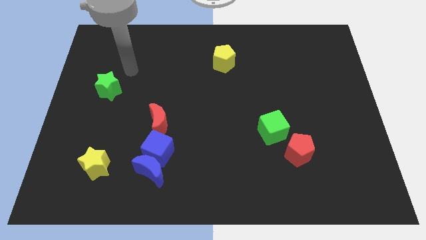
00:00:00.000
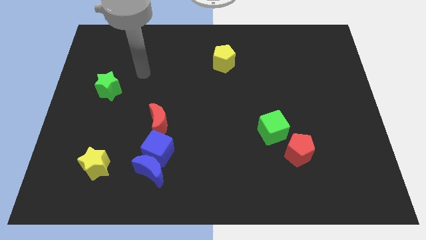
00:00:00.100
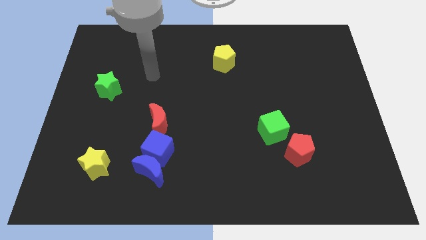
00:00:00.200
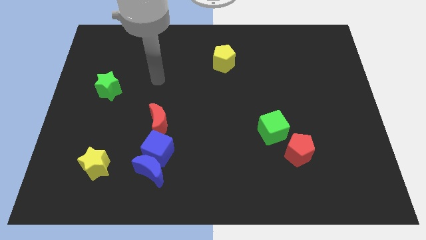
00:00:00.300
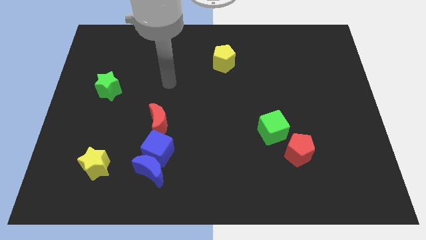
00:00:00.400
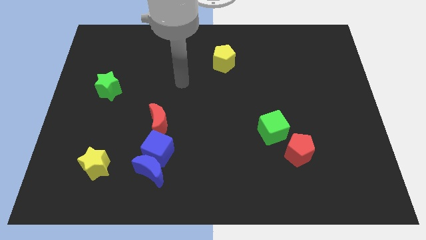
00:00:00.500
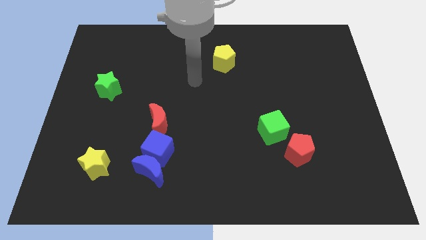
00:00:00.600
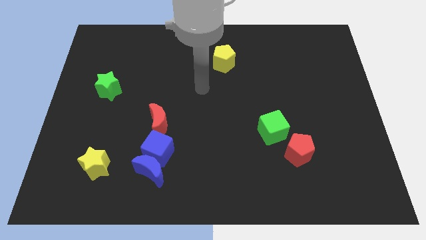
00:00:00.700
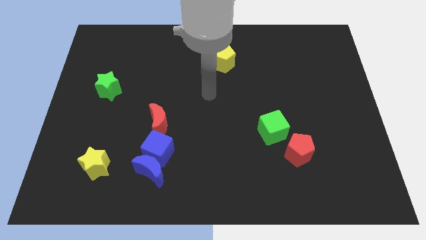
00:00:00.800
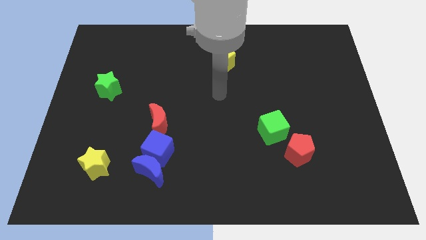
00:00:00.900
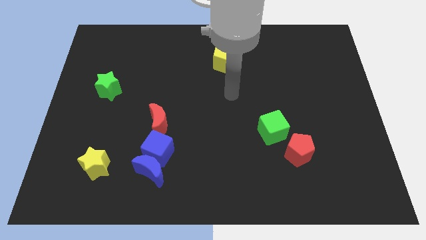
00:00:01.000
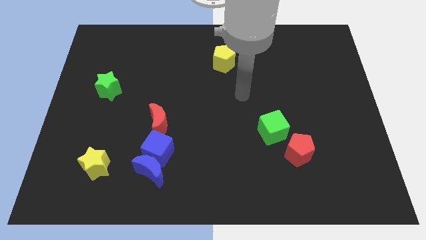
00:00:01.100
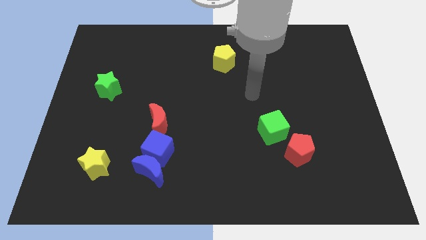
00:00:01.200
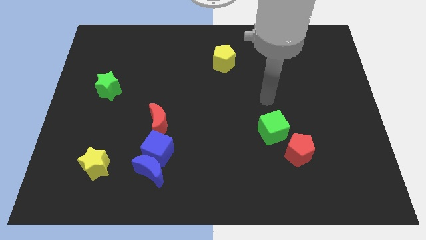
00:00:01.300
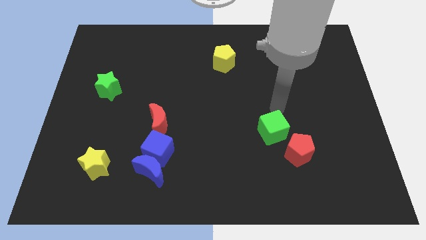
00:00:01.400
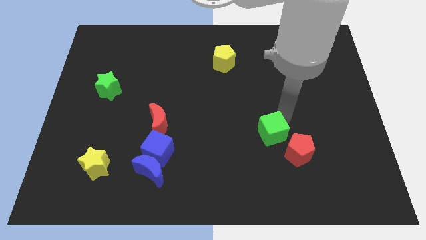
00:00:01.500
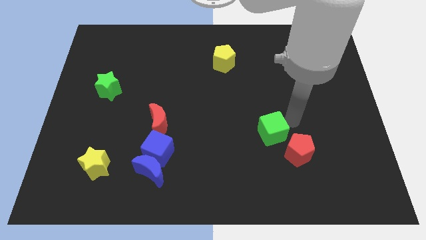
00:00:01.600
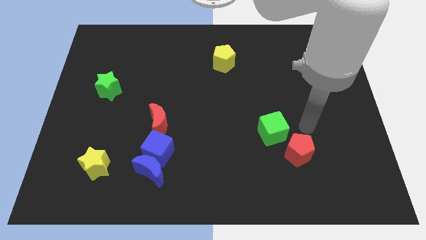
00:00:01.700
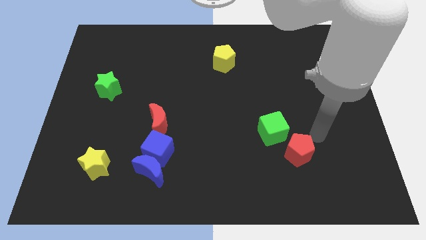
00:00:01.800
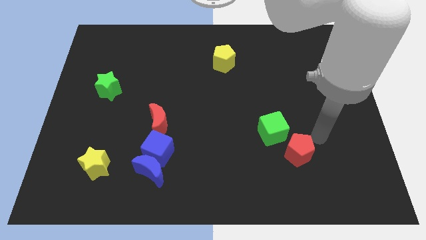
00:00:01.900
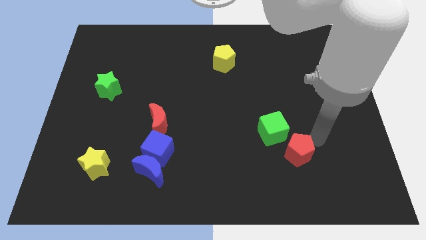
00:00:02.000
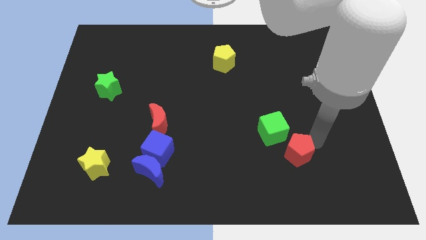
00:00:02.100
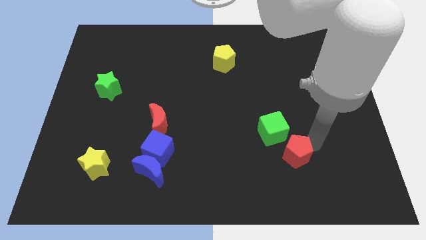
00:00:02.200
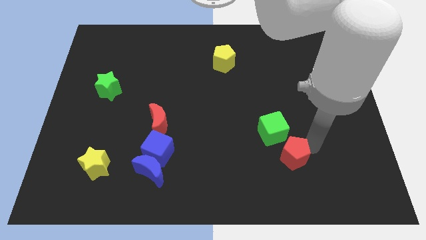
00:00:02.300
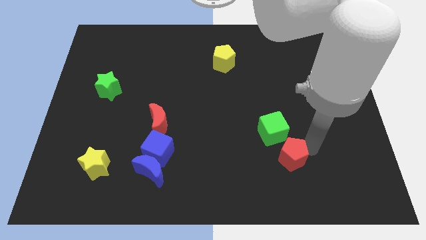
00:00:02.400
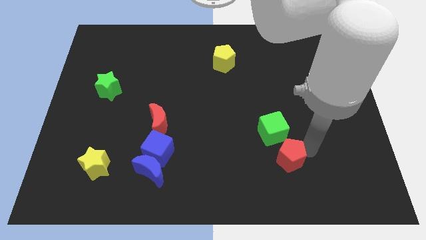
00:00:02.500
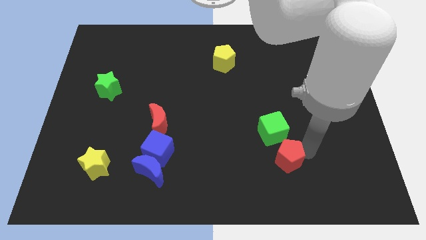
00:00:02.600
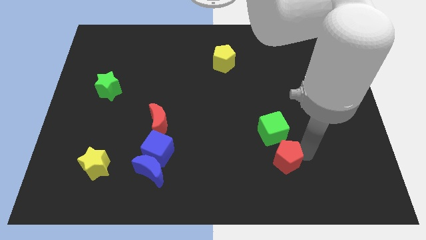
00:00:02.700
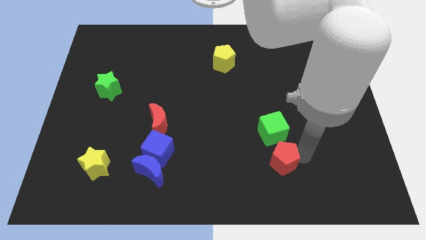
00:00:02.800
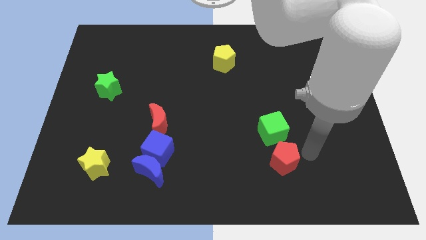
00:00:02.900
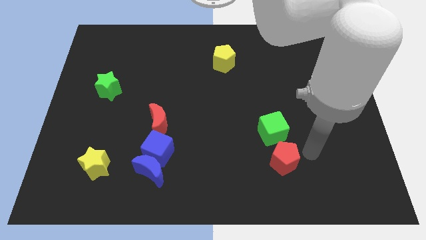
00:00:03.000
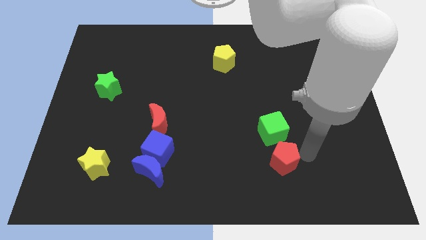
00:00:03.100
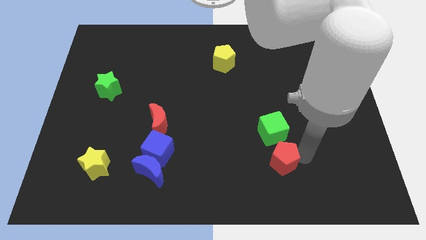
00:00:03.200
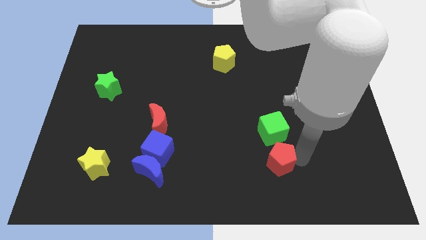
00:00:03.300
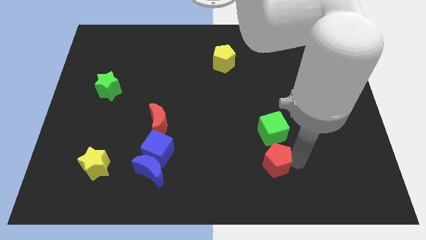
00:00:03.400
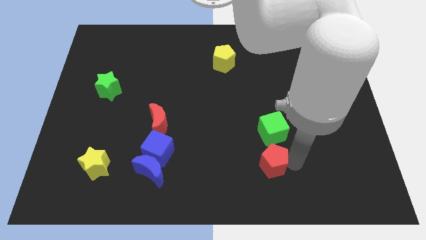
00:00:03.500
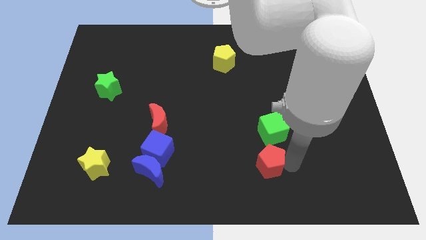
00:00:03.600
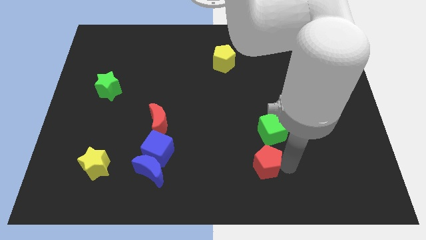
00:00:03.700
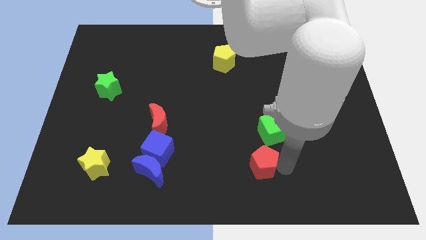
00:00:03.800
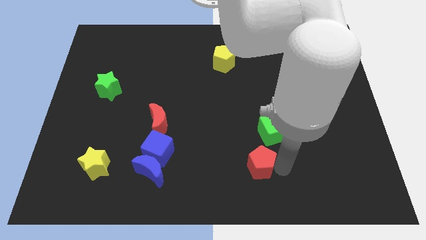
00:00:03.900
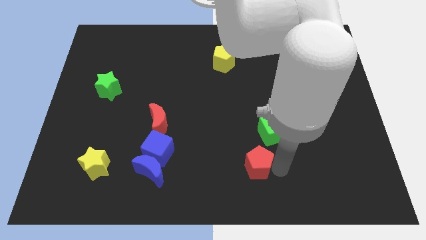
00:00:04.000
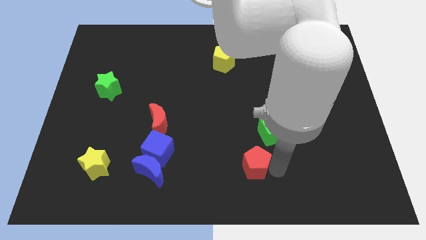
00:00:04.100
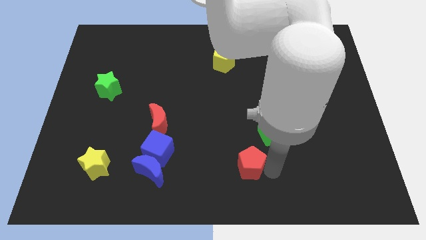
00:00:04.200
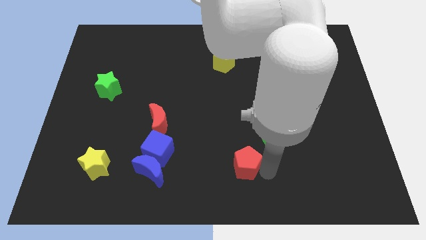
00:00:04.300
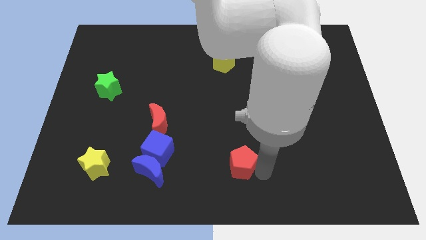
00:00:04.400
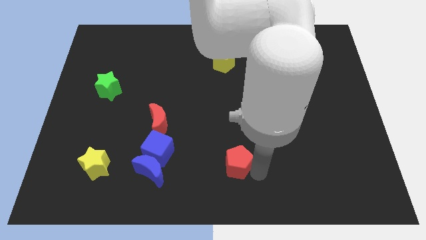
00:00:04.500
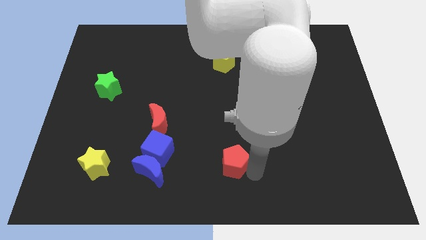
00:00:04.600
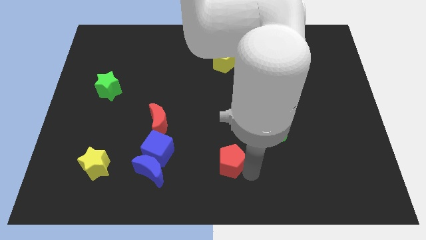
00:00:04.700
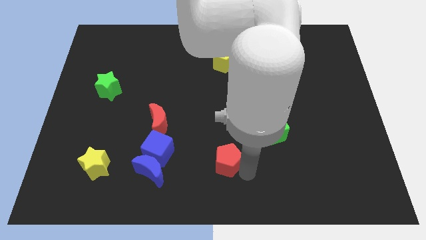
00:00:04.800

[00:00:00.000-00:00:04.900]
move the red pentagon just right of the blue moon

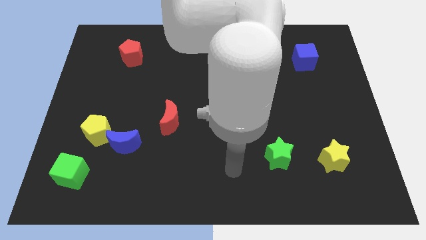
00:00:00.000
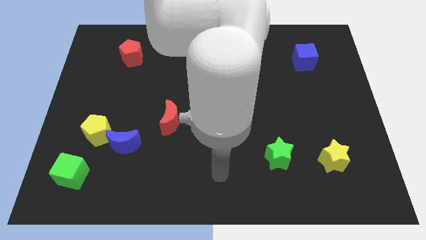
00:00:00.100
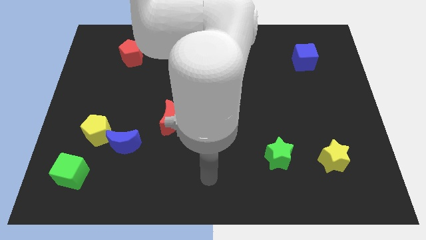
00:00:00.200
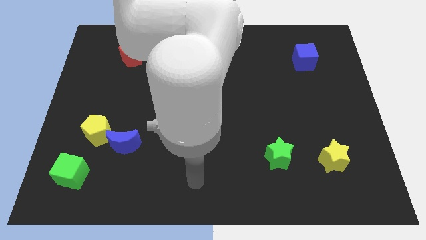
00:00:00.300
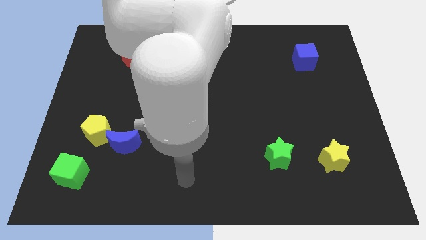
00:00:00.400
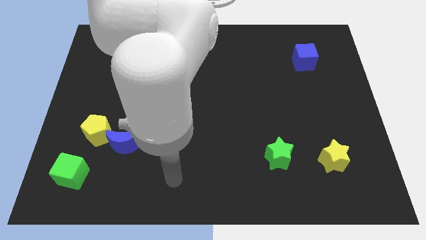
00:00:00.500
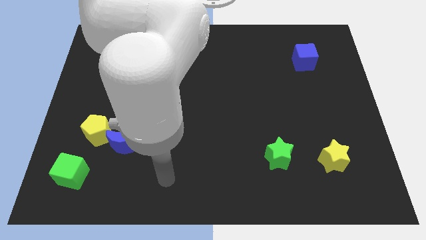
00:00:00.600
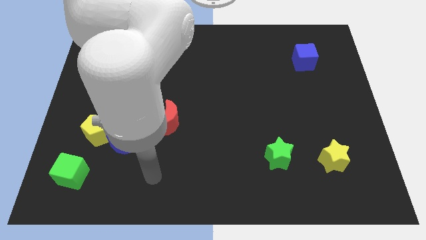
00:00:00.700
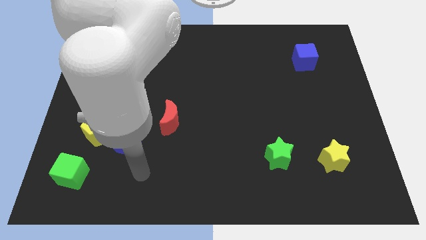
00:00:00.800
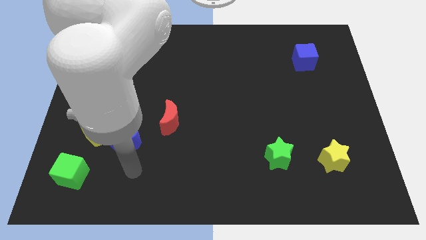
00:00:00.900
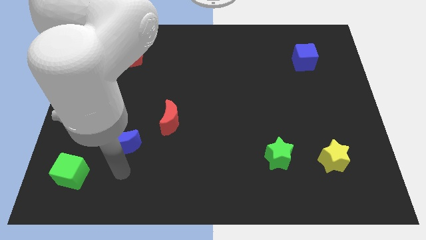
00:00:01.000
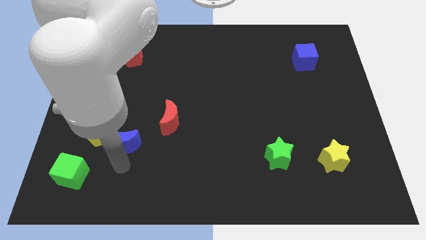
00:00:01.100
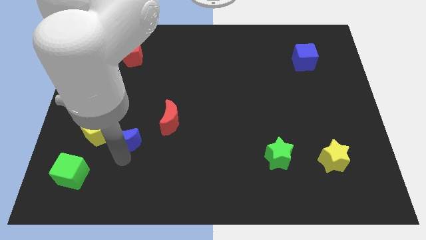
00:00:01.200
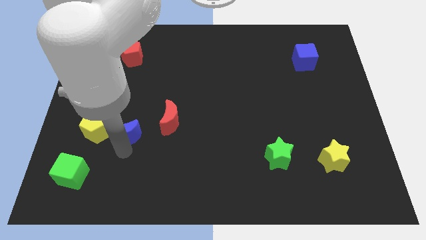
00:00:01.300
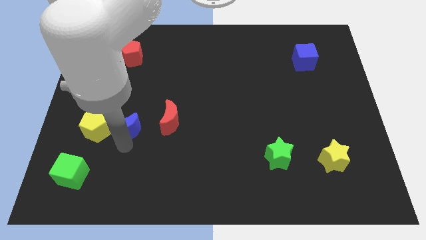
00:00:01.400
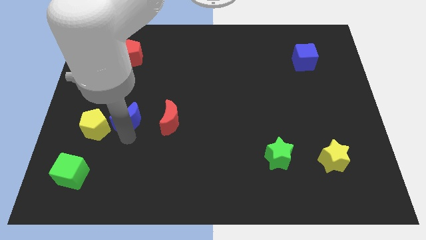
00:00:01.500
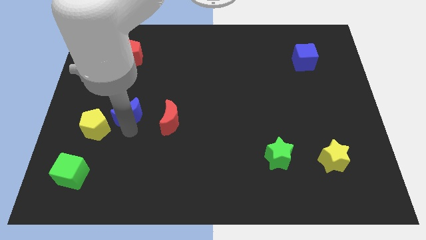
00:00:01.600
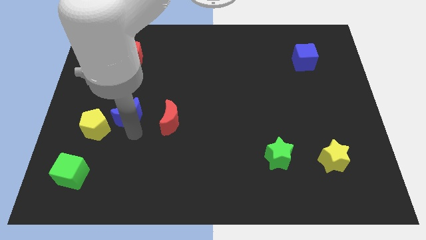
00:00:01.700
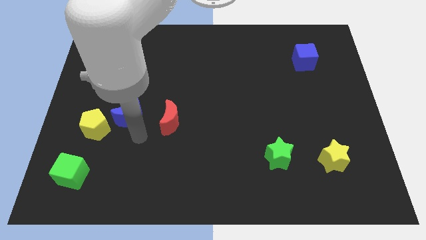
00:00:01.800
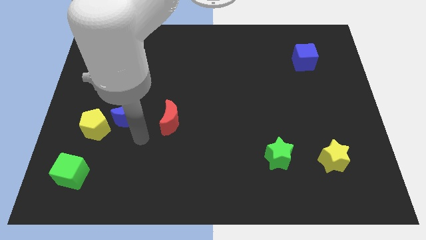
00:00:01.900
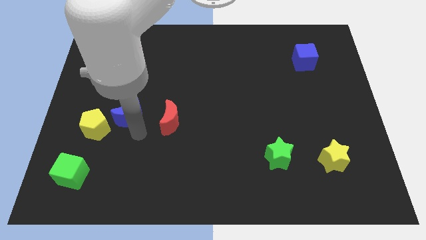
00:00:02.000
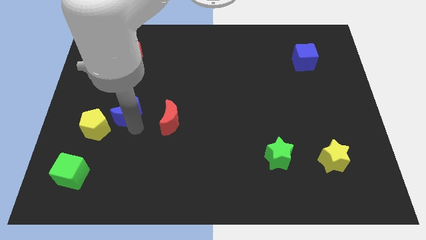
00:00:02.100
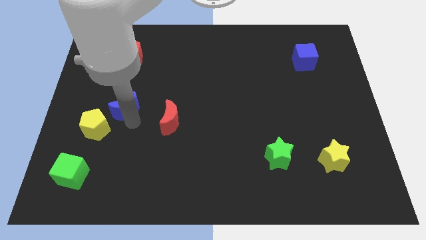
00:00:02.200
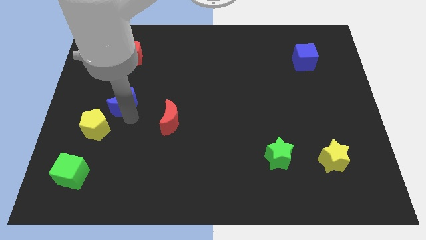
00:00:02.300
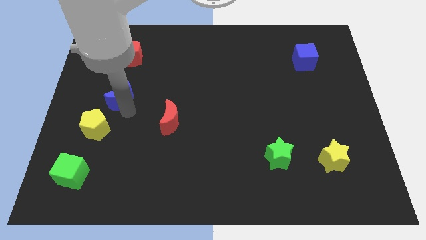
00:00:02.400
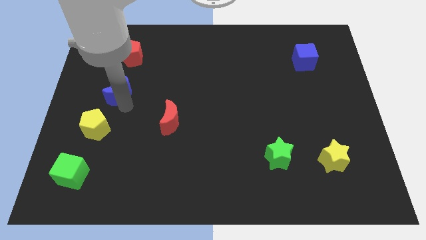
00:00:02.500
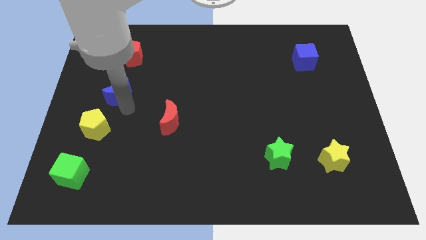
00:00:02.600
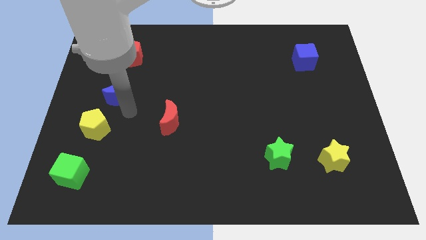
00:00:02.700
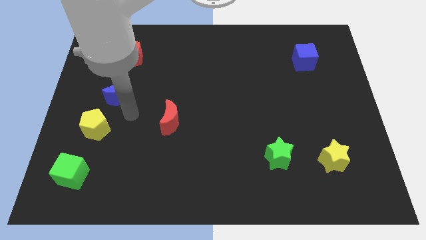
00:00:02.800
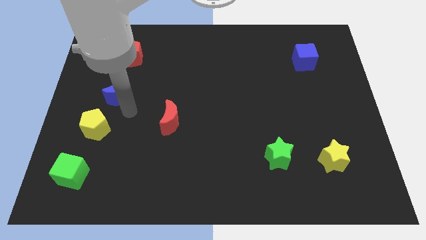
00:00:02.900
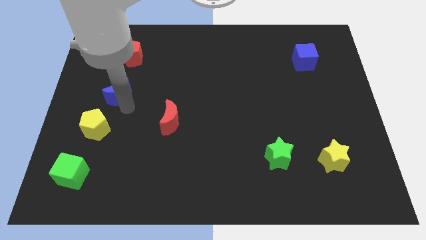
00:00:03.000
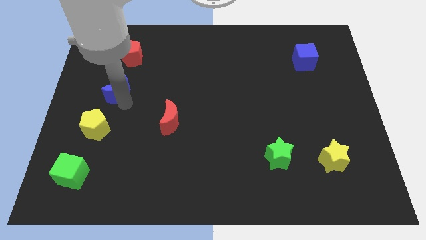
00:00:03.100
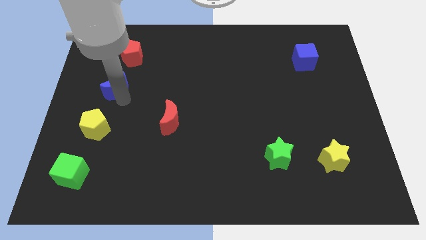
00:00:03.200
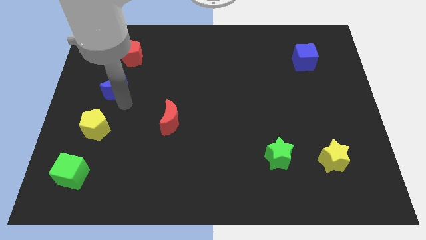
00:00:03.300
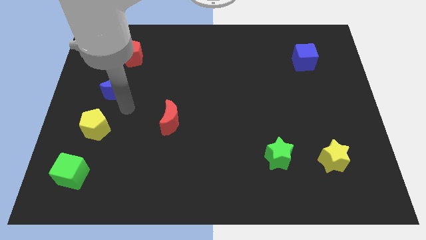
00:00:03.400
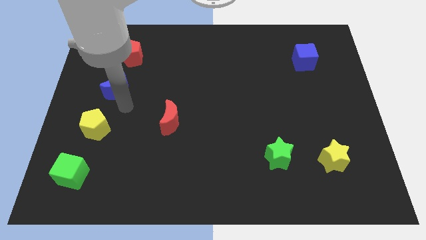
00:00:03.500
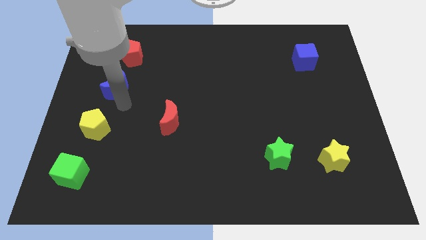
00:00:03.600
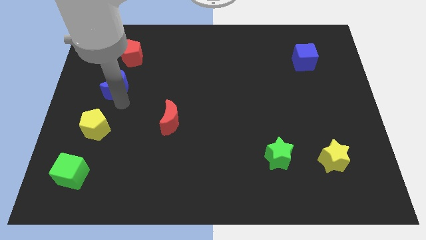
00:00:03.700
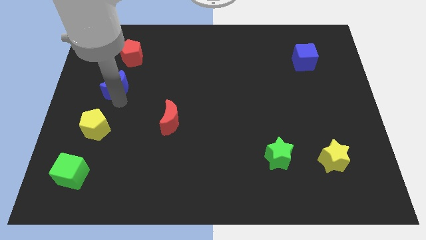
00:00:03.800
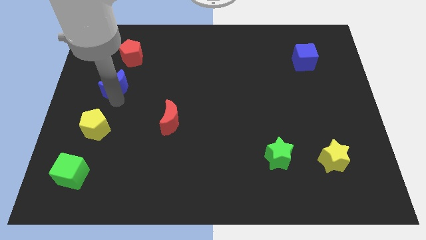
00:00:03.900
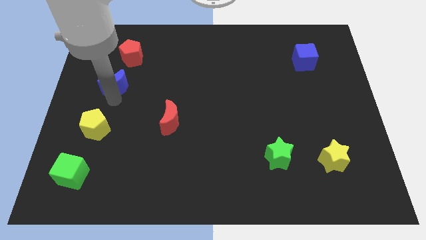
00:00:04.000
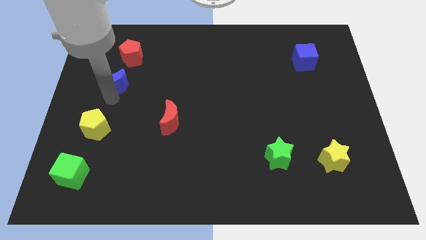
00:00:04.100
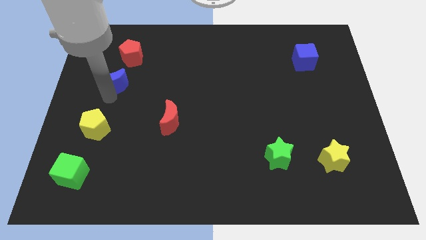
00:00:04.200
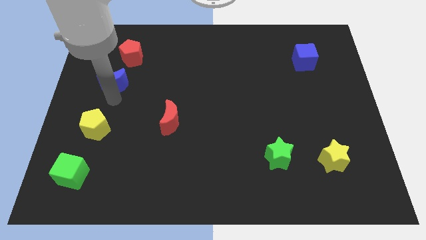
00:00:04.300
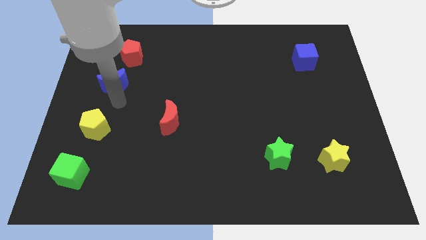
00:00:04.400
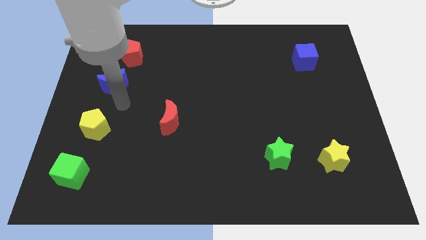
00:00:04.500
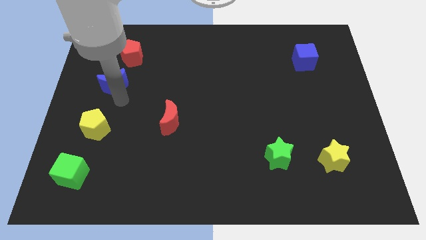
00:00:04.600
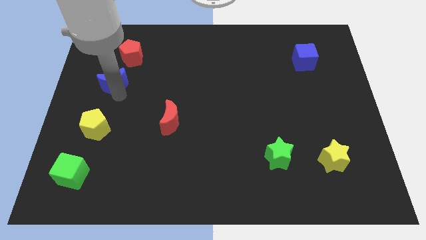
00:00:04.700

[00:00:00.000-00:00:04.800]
slide the blue moon to the bottom left of the red pentagon
